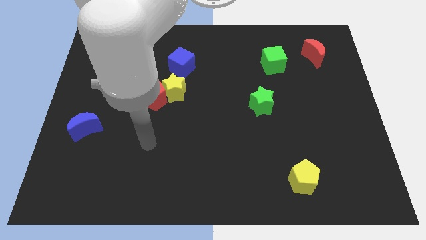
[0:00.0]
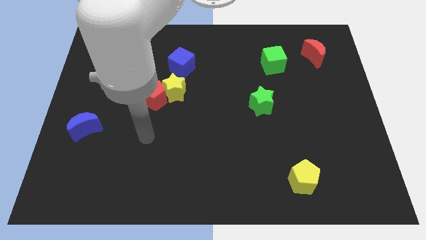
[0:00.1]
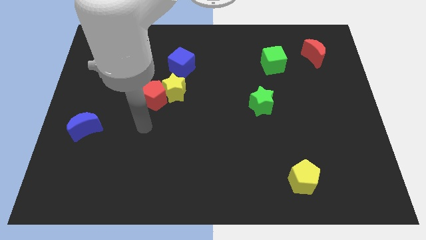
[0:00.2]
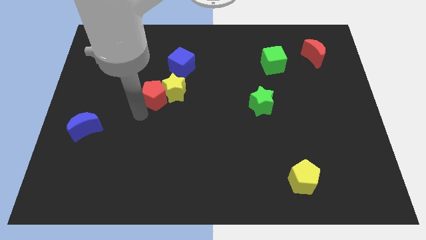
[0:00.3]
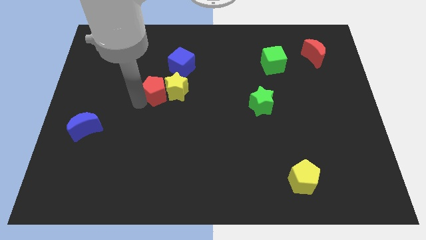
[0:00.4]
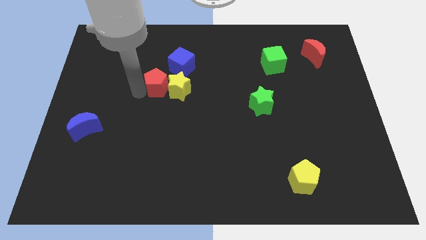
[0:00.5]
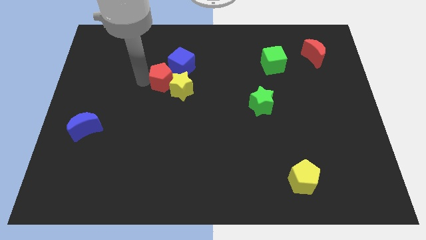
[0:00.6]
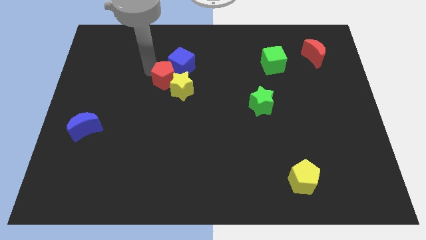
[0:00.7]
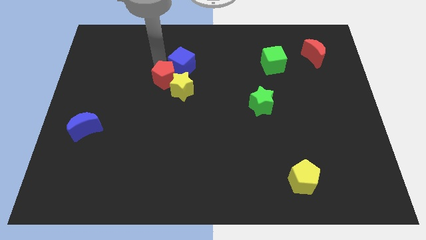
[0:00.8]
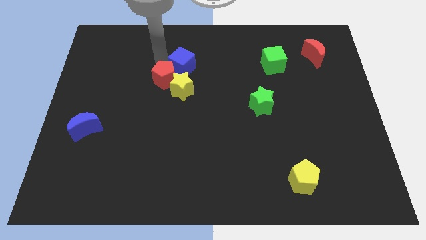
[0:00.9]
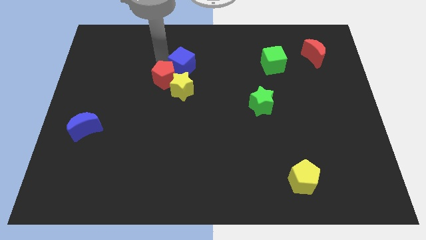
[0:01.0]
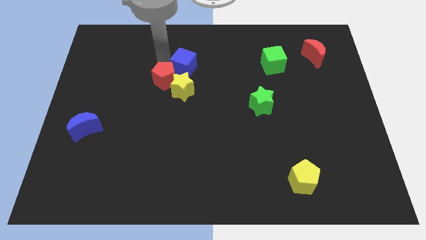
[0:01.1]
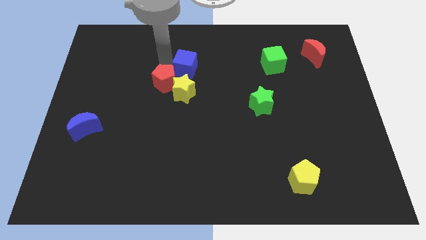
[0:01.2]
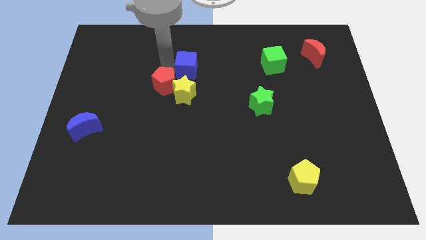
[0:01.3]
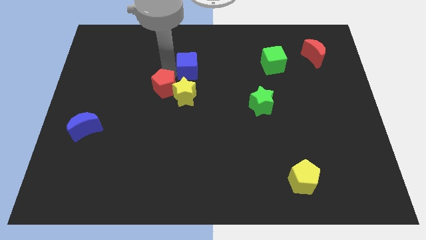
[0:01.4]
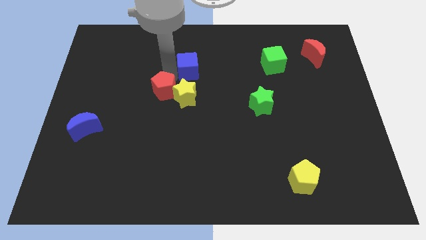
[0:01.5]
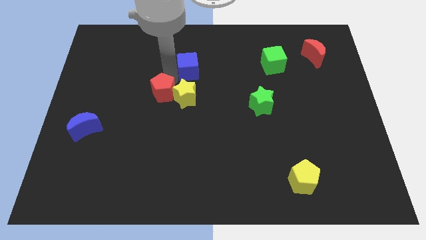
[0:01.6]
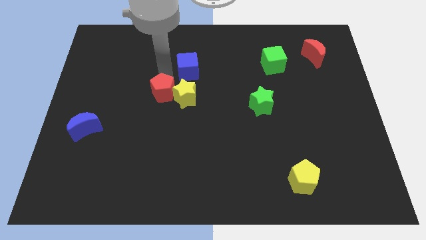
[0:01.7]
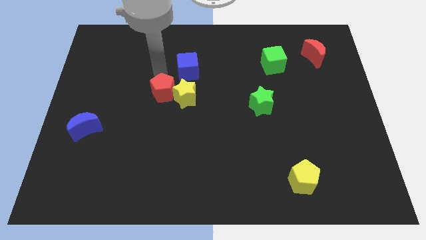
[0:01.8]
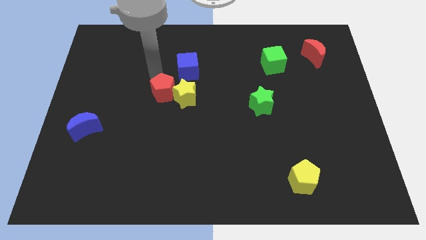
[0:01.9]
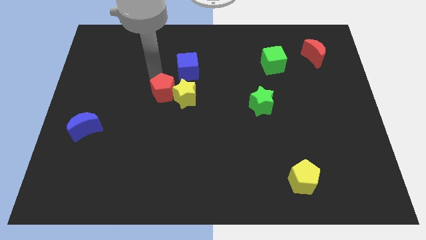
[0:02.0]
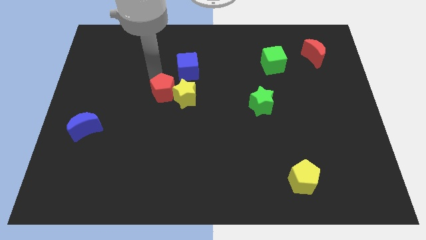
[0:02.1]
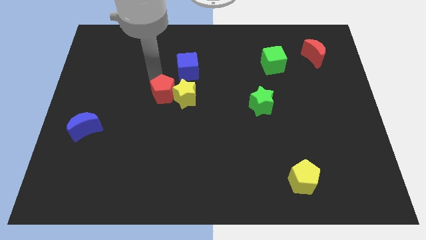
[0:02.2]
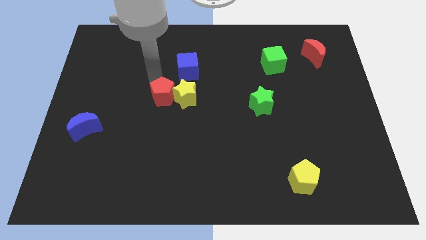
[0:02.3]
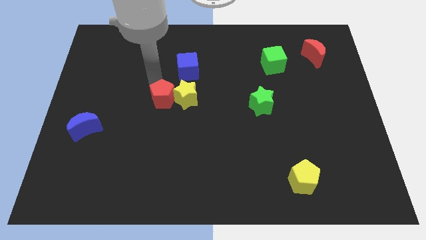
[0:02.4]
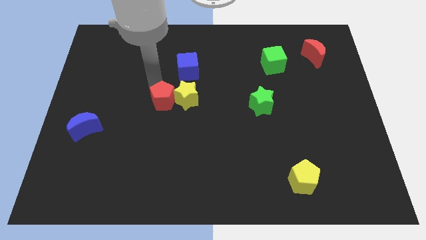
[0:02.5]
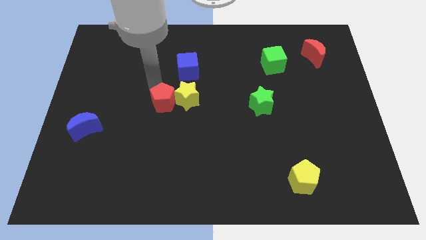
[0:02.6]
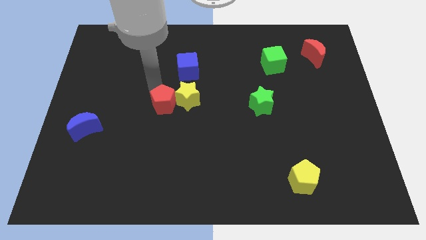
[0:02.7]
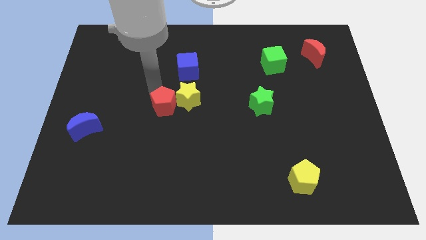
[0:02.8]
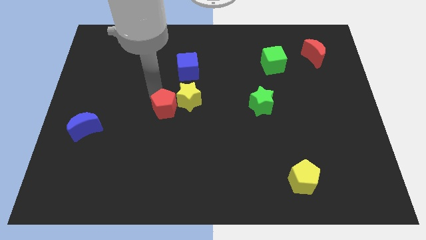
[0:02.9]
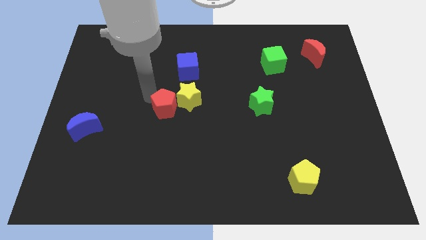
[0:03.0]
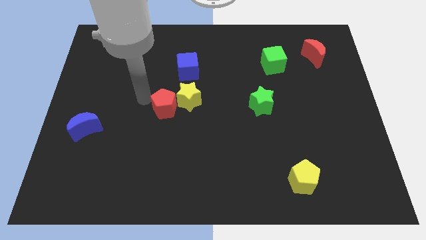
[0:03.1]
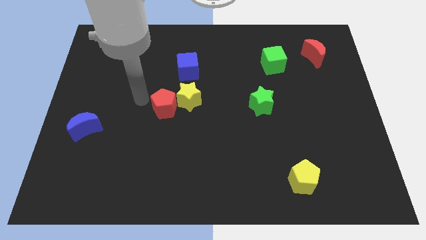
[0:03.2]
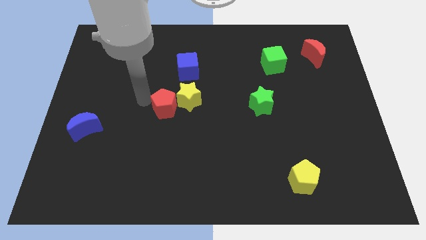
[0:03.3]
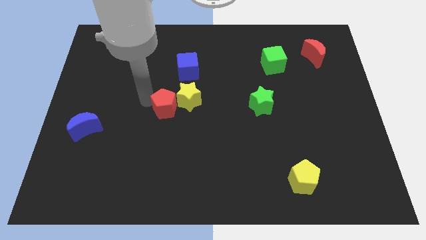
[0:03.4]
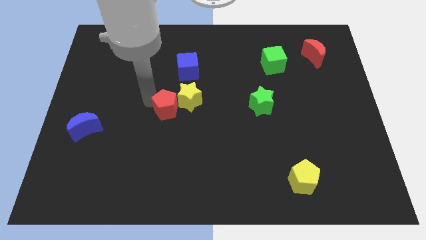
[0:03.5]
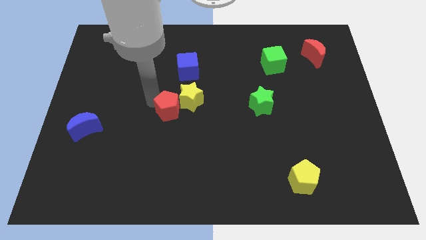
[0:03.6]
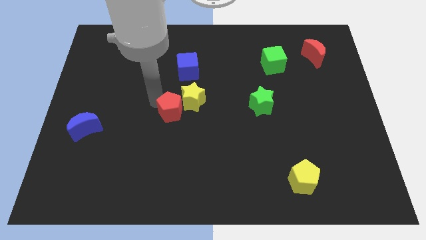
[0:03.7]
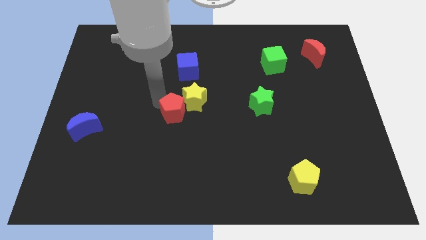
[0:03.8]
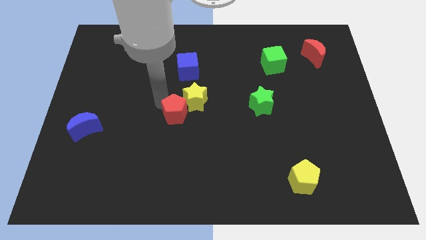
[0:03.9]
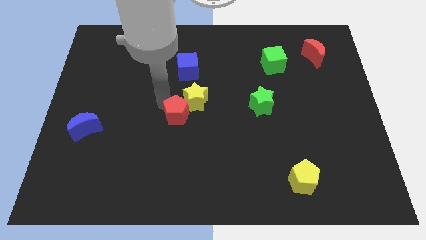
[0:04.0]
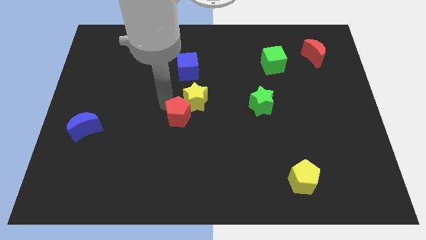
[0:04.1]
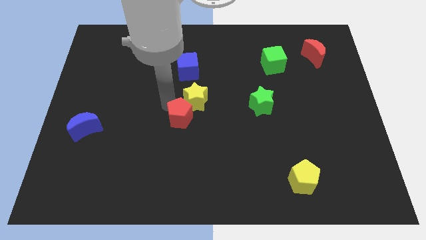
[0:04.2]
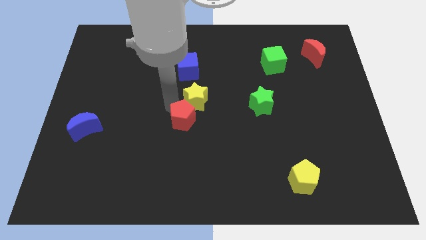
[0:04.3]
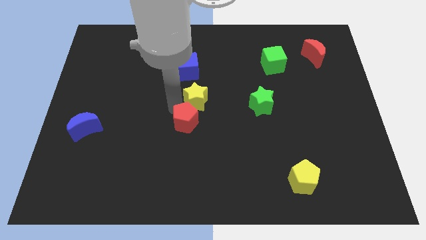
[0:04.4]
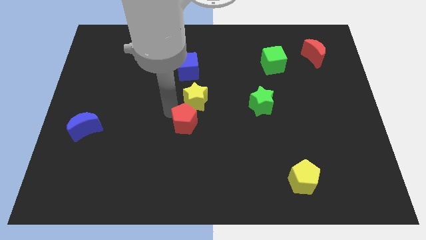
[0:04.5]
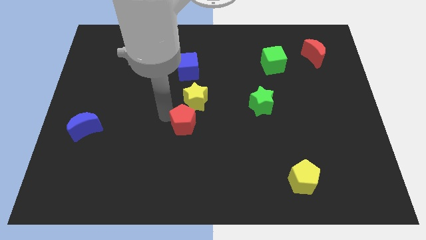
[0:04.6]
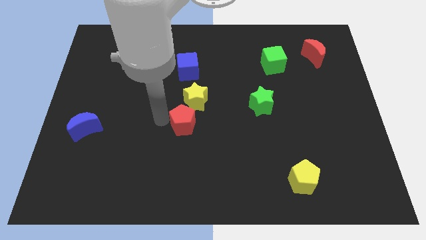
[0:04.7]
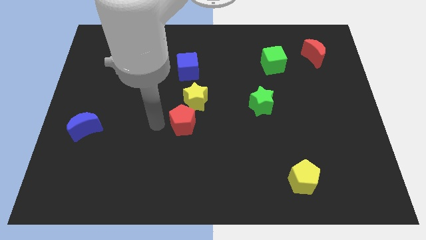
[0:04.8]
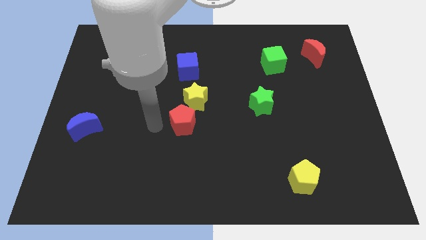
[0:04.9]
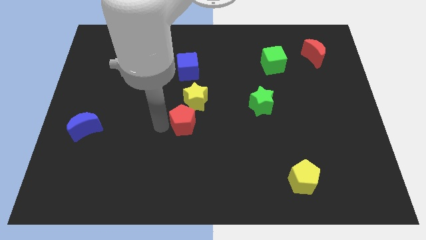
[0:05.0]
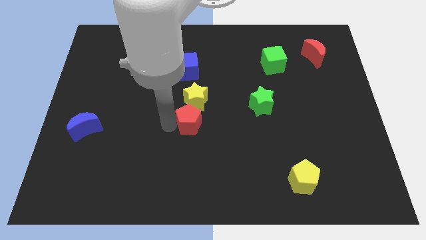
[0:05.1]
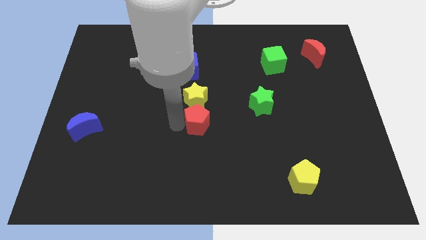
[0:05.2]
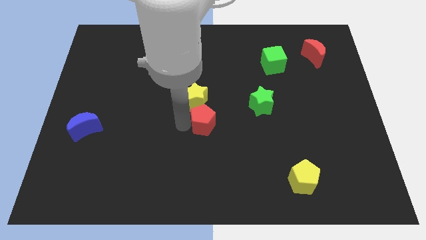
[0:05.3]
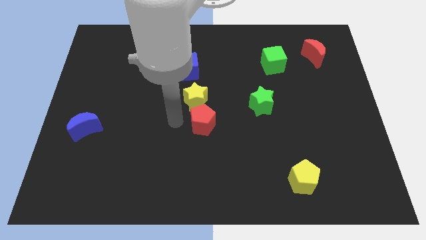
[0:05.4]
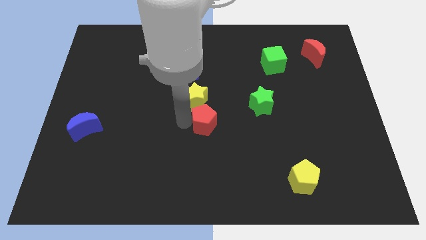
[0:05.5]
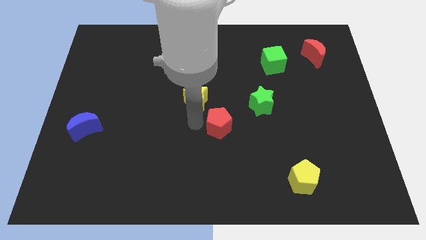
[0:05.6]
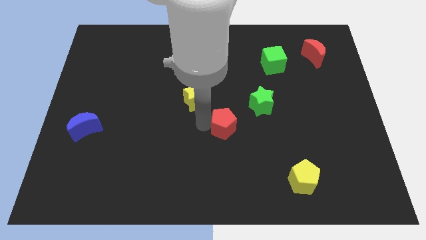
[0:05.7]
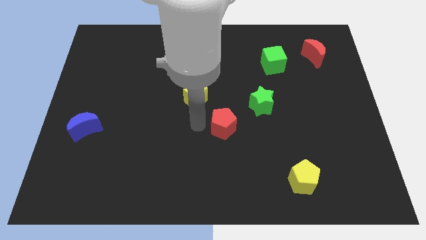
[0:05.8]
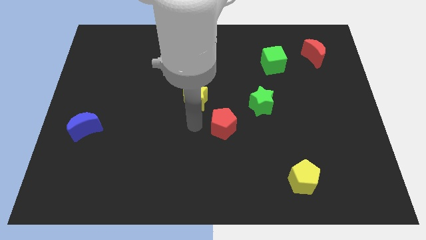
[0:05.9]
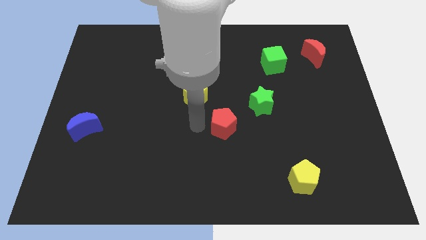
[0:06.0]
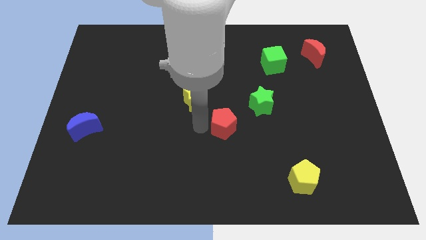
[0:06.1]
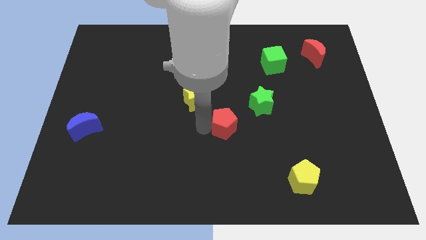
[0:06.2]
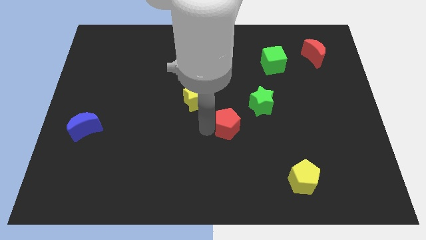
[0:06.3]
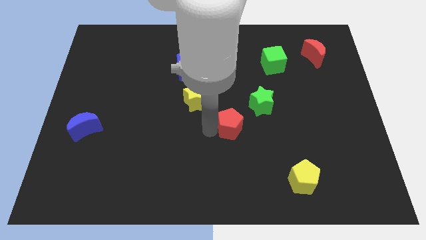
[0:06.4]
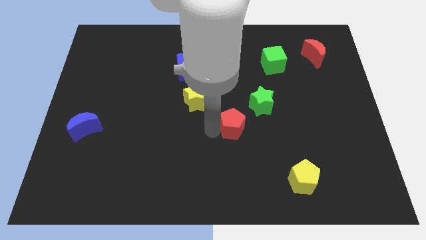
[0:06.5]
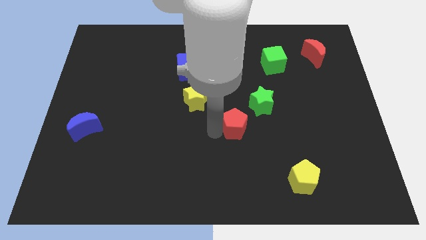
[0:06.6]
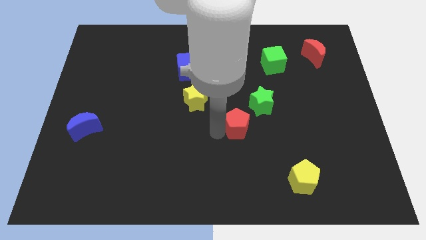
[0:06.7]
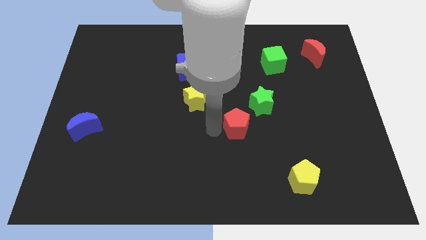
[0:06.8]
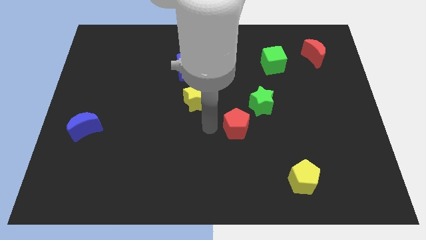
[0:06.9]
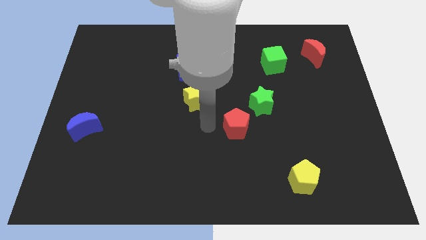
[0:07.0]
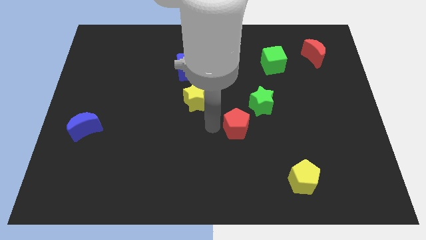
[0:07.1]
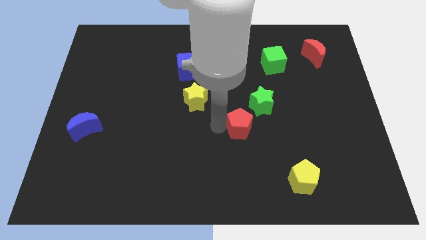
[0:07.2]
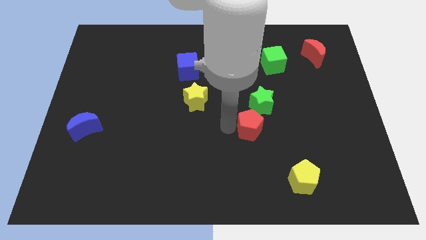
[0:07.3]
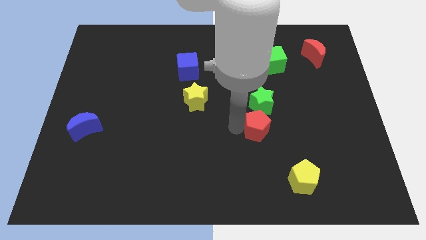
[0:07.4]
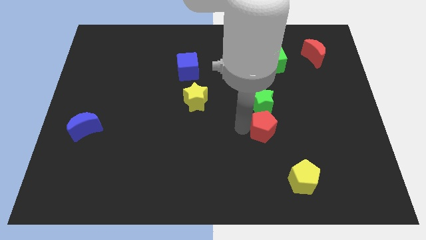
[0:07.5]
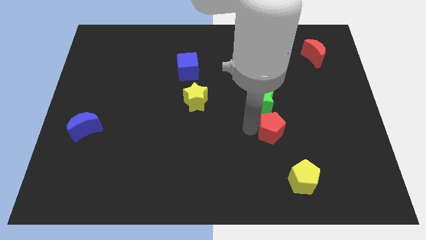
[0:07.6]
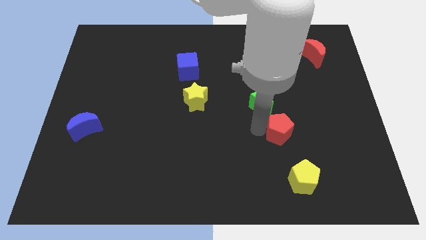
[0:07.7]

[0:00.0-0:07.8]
put the red pentagon to the top side of the yellow pentagon
